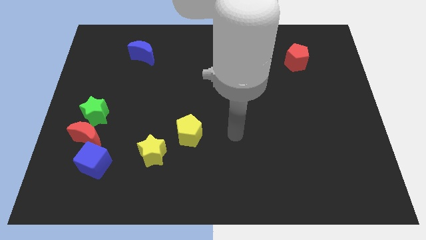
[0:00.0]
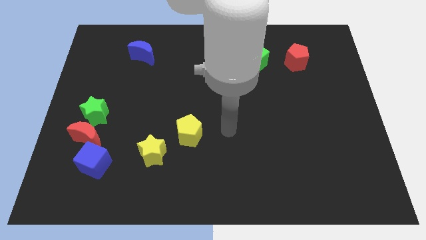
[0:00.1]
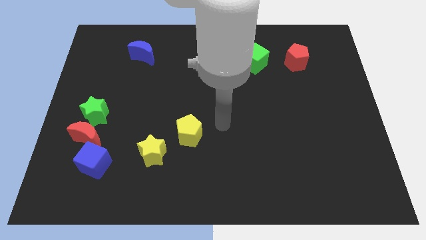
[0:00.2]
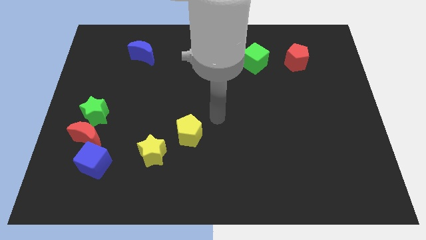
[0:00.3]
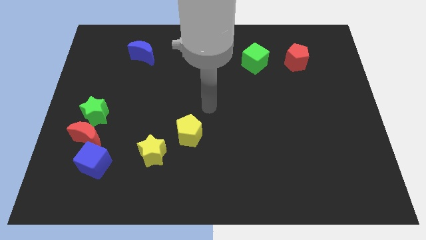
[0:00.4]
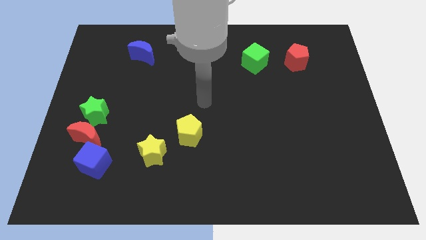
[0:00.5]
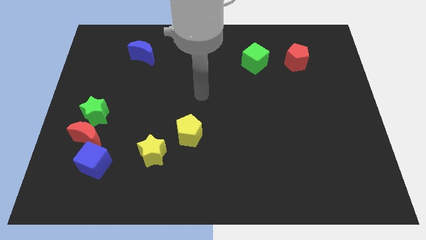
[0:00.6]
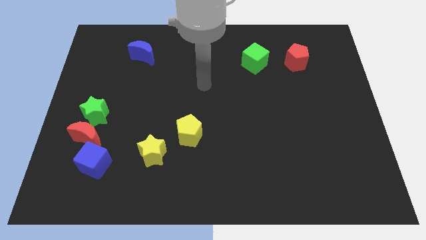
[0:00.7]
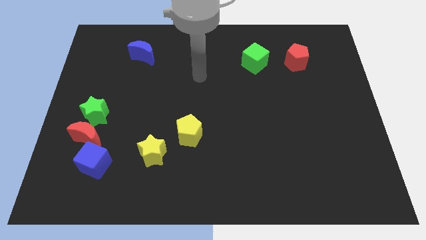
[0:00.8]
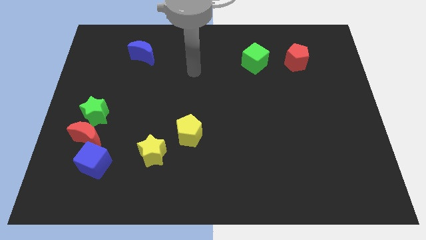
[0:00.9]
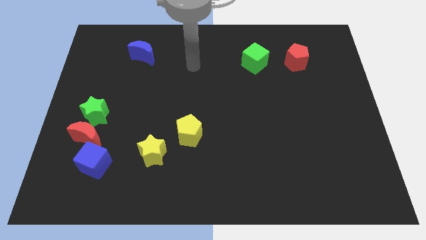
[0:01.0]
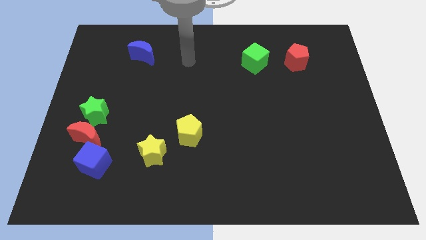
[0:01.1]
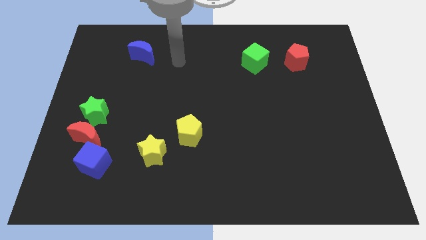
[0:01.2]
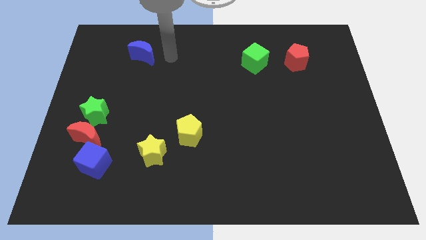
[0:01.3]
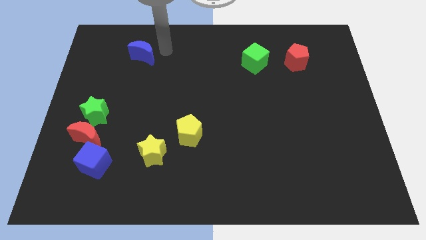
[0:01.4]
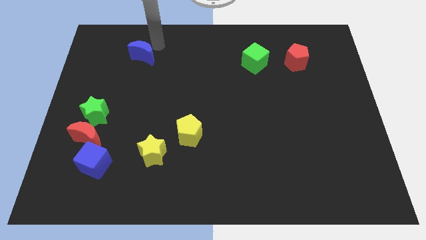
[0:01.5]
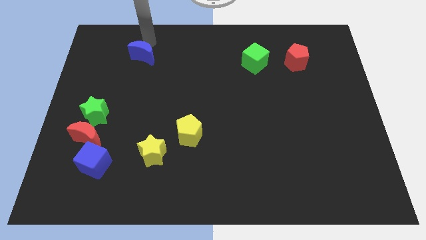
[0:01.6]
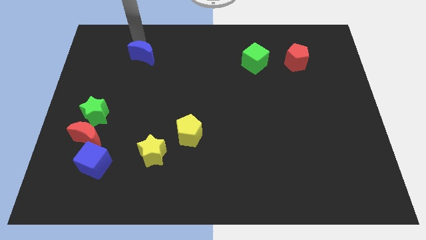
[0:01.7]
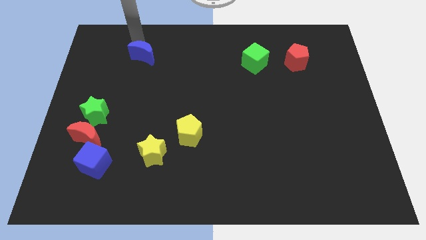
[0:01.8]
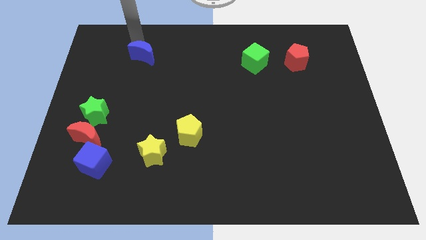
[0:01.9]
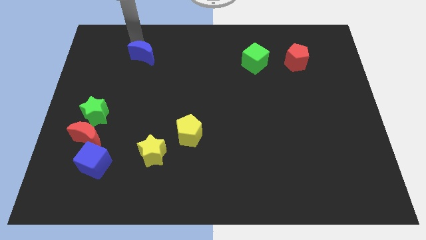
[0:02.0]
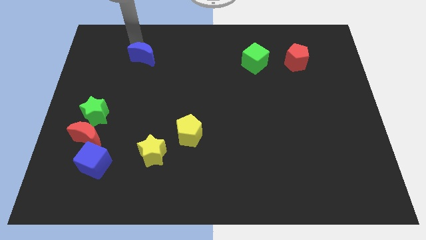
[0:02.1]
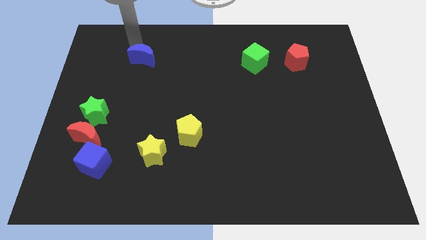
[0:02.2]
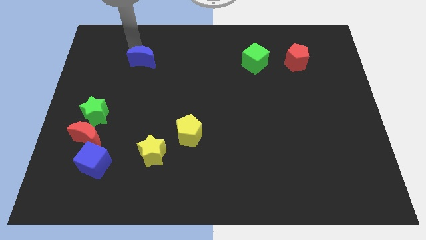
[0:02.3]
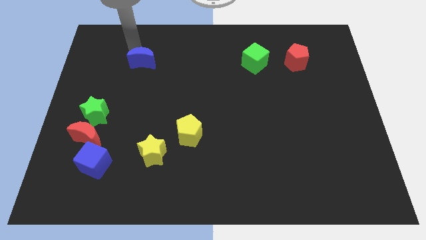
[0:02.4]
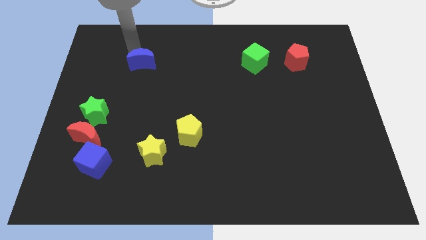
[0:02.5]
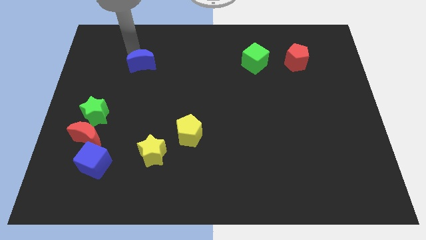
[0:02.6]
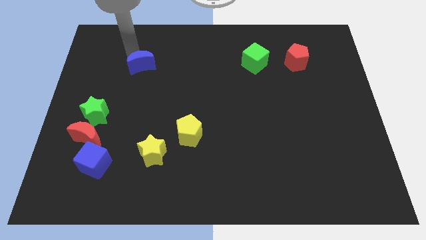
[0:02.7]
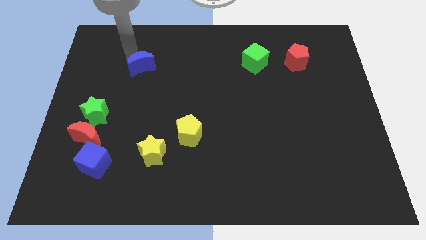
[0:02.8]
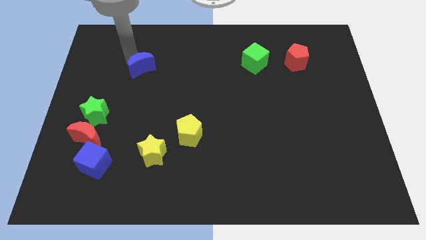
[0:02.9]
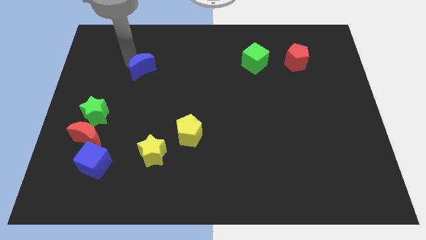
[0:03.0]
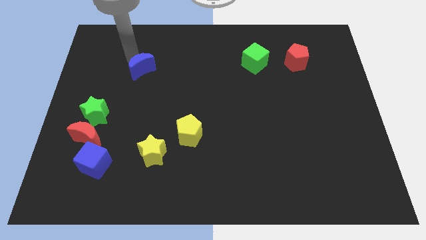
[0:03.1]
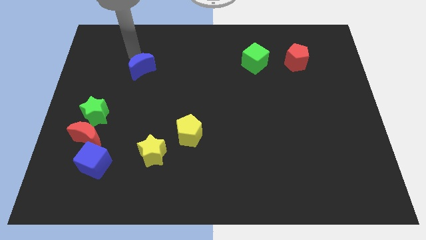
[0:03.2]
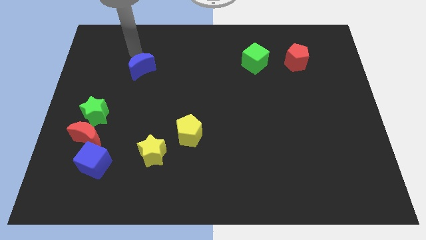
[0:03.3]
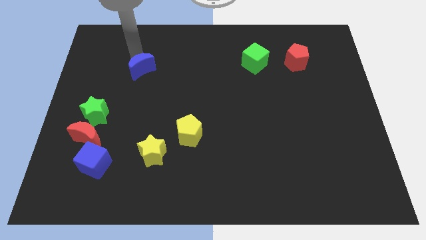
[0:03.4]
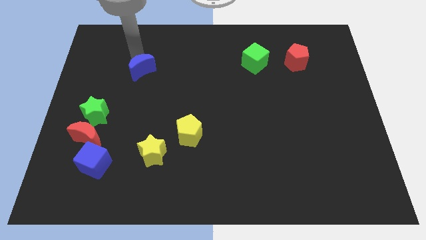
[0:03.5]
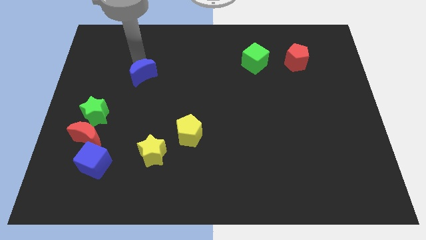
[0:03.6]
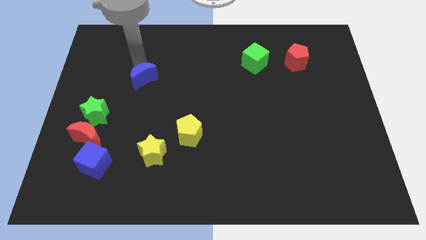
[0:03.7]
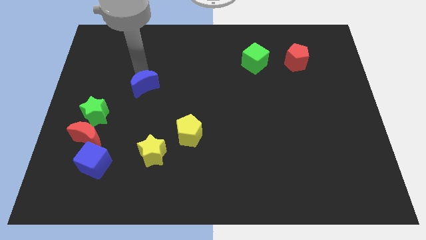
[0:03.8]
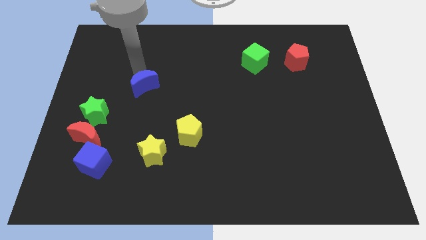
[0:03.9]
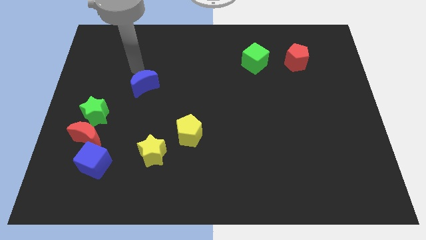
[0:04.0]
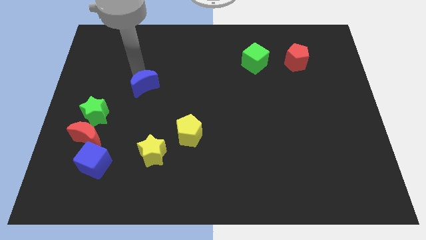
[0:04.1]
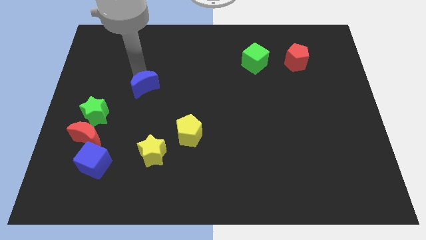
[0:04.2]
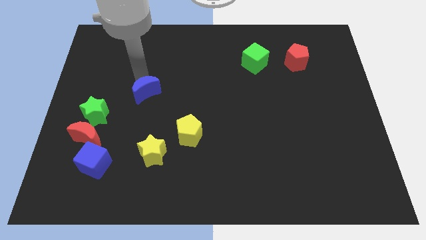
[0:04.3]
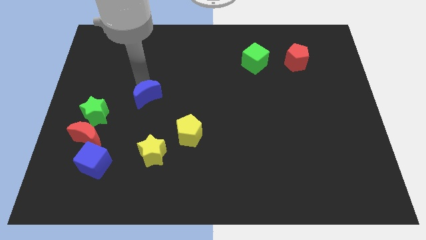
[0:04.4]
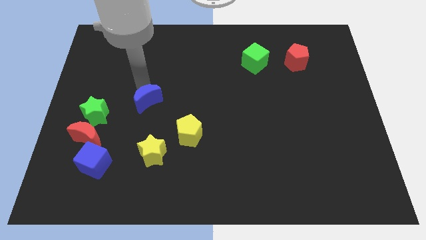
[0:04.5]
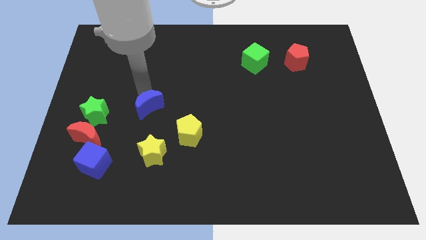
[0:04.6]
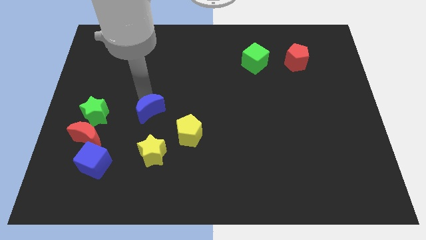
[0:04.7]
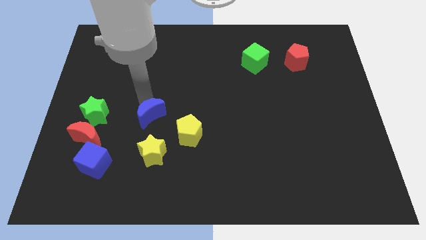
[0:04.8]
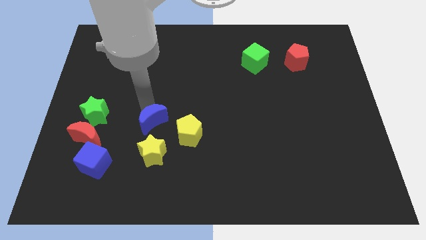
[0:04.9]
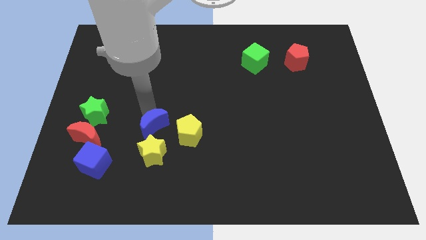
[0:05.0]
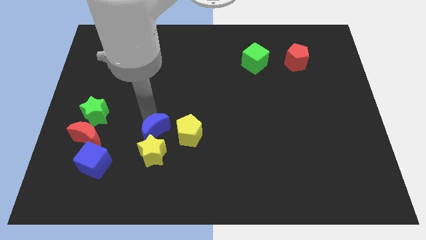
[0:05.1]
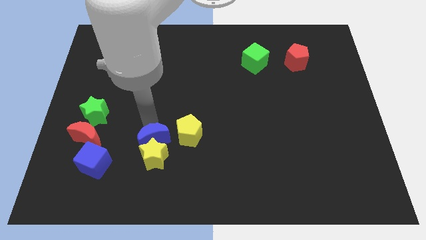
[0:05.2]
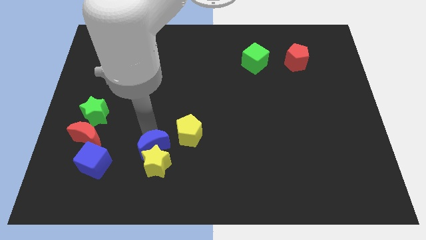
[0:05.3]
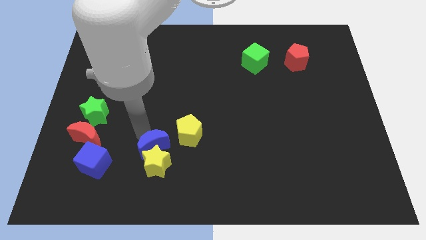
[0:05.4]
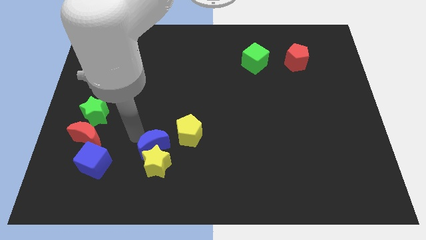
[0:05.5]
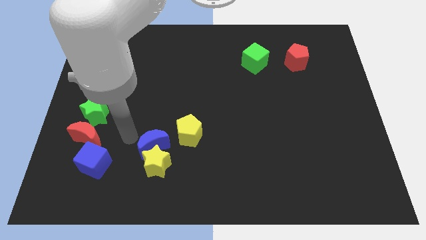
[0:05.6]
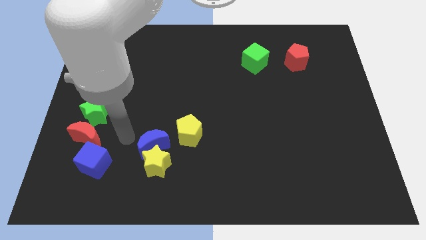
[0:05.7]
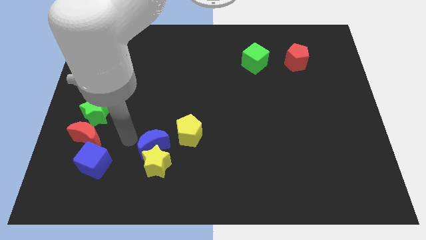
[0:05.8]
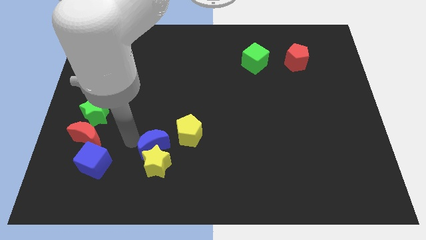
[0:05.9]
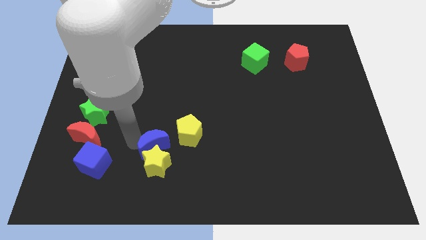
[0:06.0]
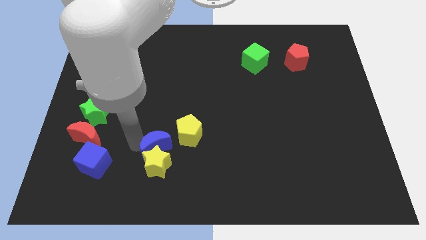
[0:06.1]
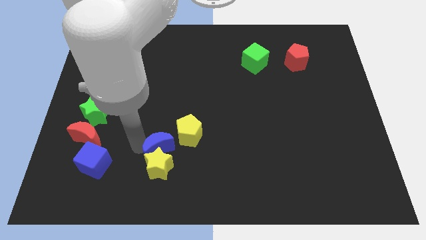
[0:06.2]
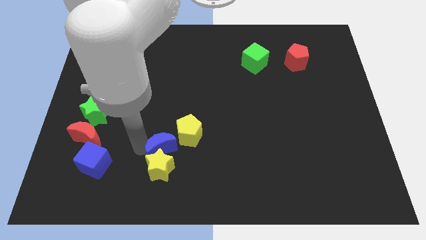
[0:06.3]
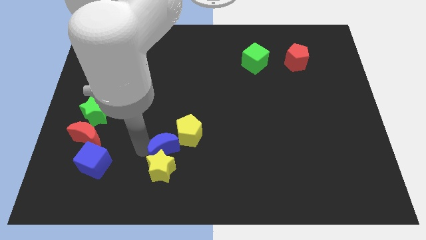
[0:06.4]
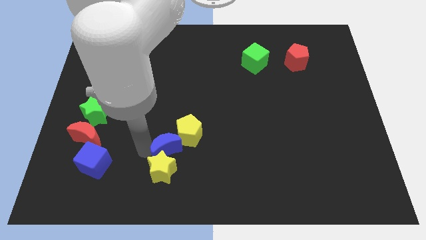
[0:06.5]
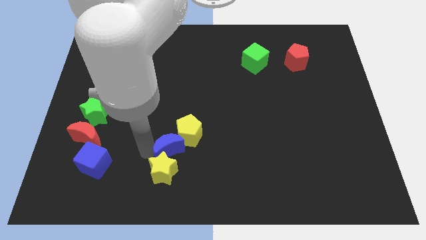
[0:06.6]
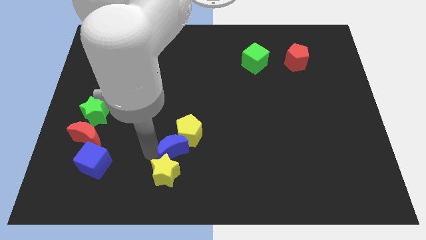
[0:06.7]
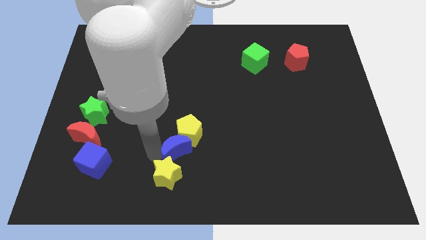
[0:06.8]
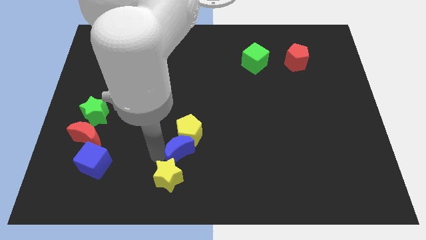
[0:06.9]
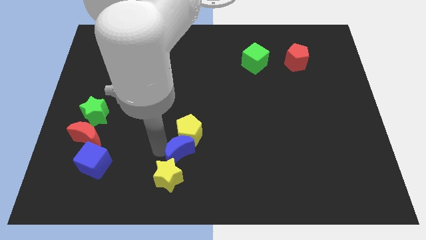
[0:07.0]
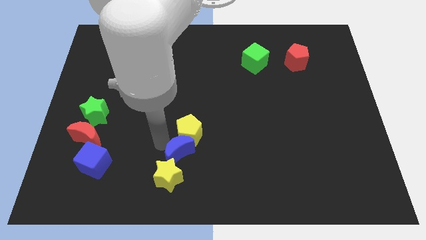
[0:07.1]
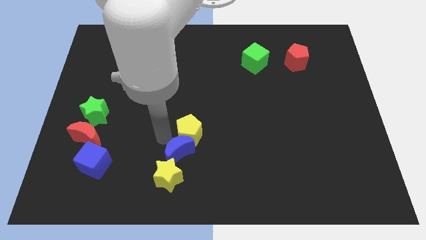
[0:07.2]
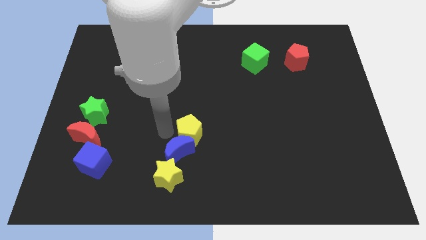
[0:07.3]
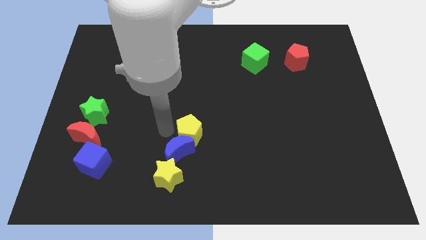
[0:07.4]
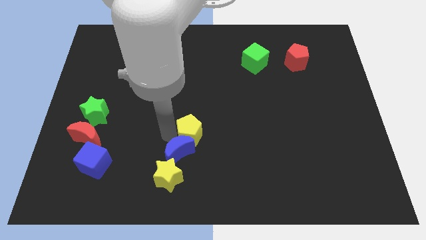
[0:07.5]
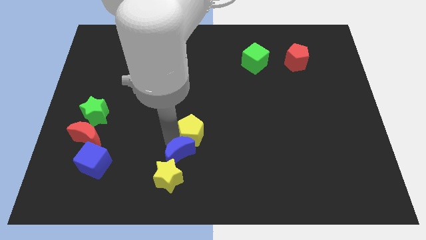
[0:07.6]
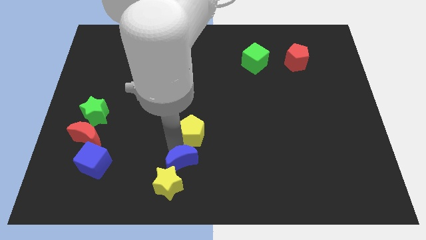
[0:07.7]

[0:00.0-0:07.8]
put the blue moon to the bottom
